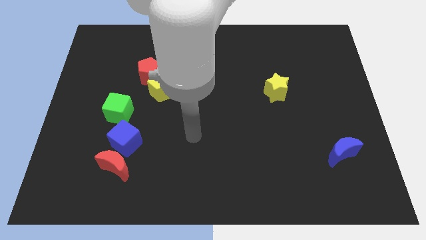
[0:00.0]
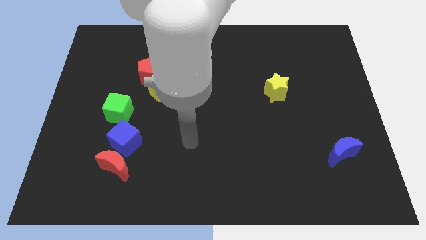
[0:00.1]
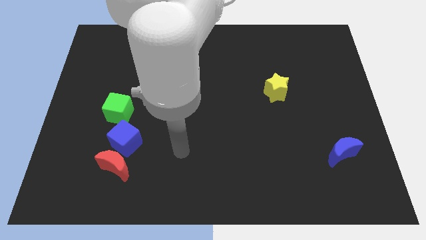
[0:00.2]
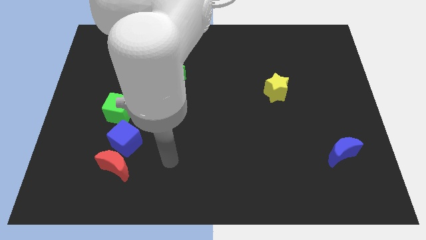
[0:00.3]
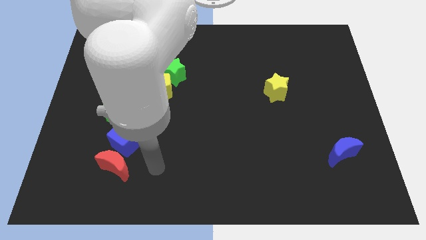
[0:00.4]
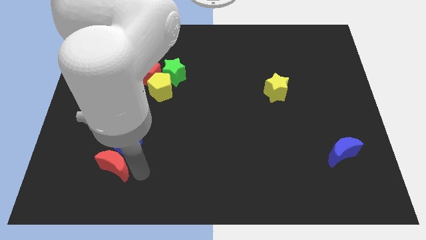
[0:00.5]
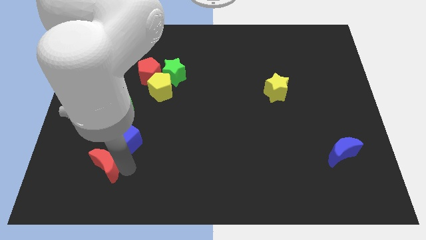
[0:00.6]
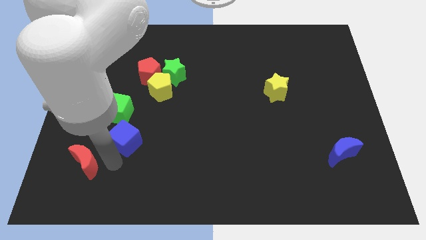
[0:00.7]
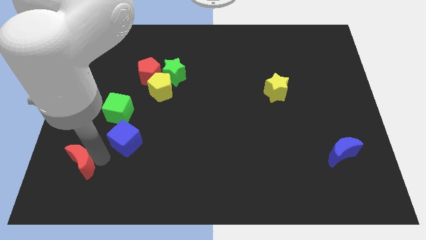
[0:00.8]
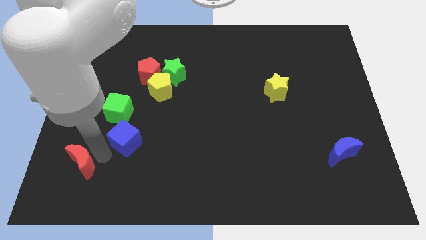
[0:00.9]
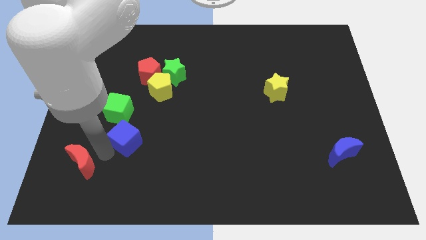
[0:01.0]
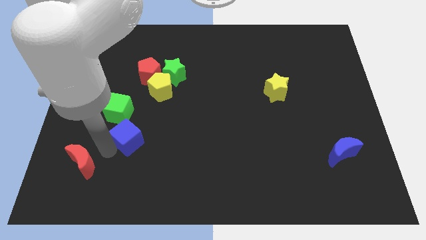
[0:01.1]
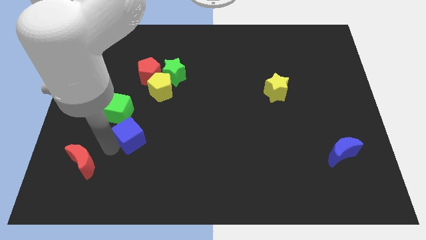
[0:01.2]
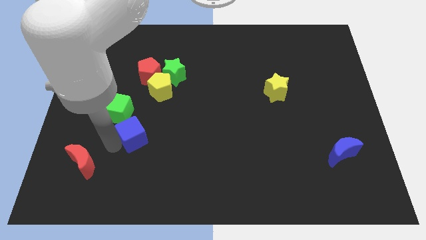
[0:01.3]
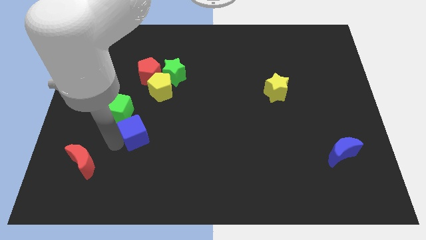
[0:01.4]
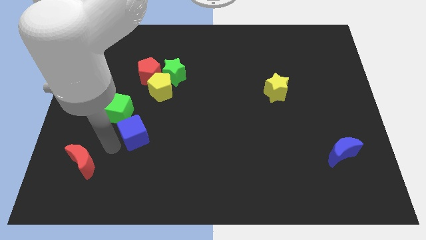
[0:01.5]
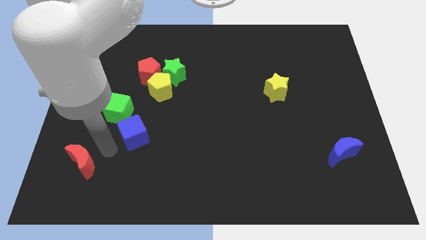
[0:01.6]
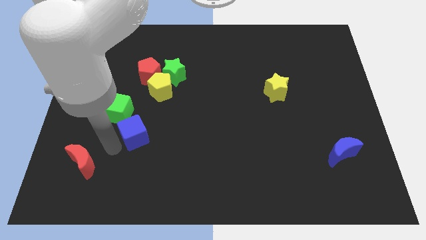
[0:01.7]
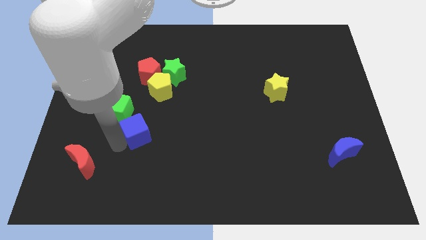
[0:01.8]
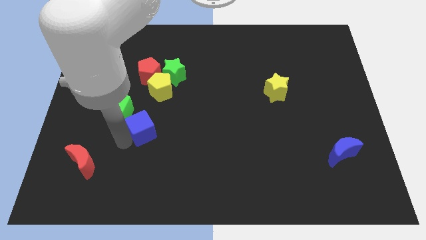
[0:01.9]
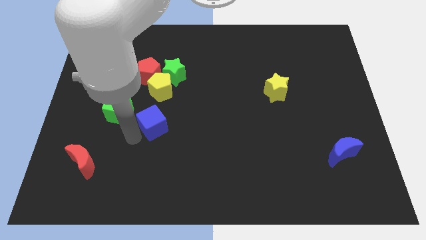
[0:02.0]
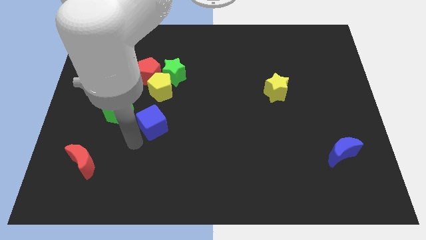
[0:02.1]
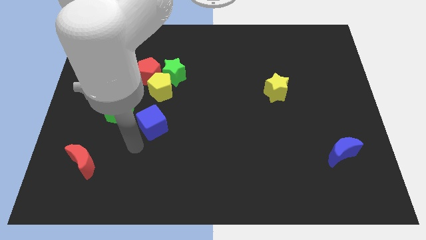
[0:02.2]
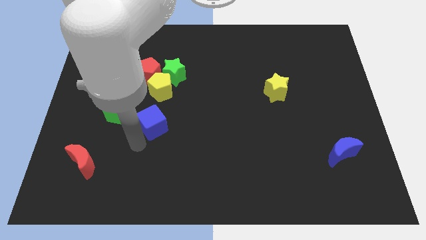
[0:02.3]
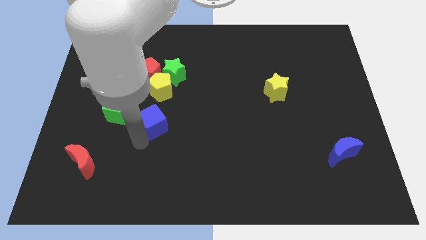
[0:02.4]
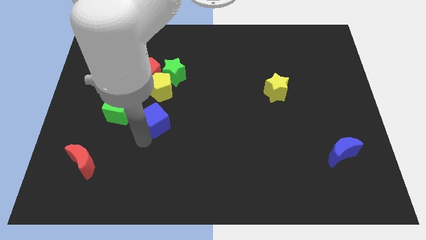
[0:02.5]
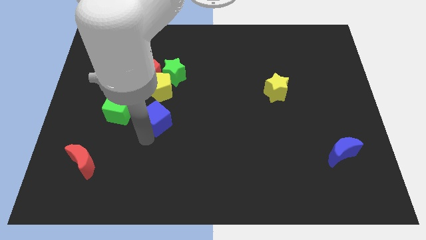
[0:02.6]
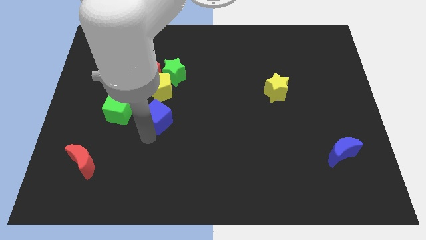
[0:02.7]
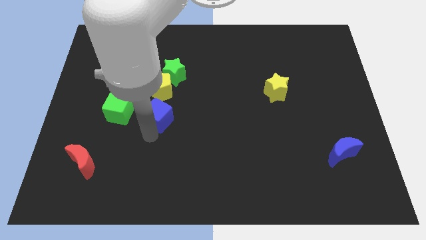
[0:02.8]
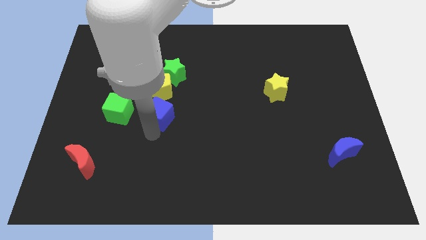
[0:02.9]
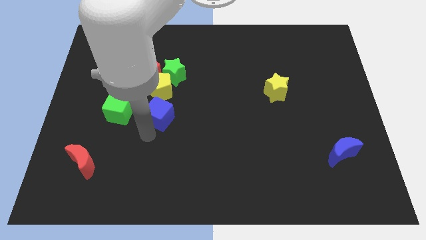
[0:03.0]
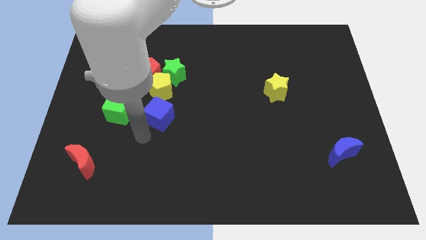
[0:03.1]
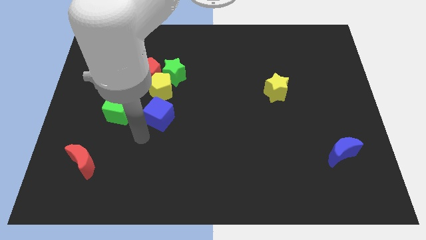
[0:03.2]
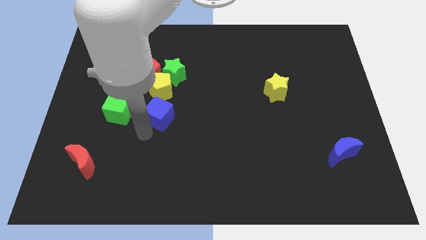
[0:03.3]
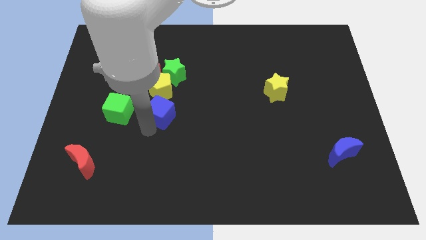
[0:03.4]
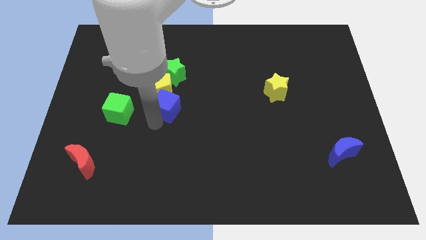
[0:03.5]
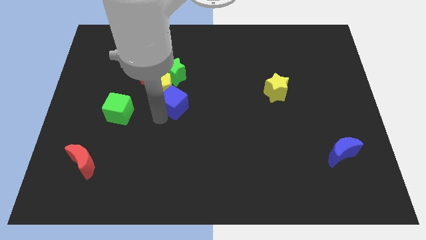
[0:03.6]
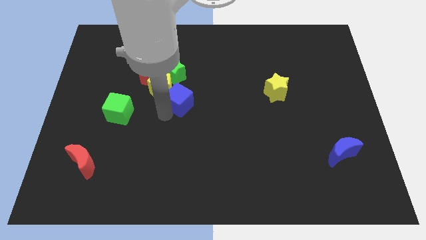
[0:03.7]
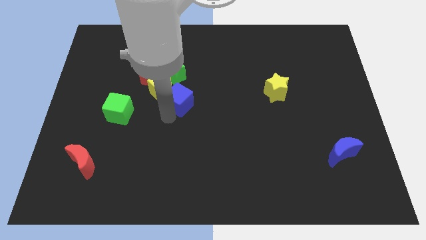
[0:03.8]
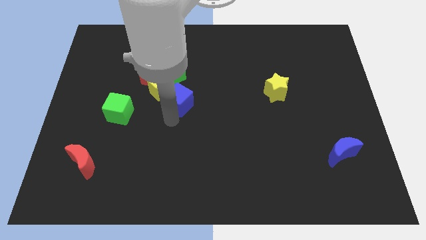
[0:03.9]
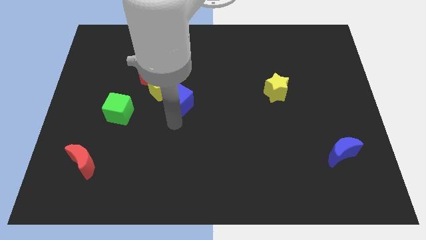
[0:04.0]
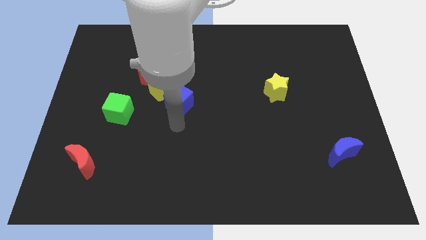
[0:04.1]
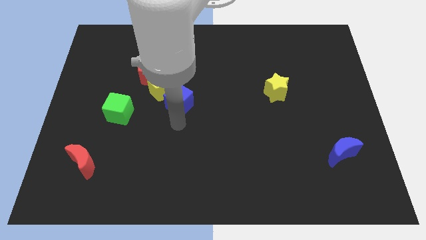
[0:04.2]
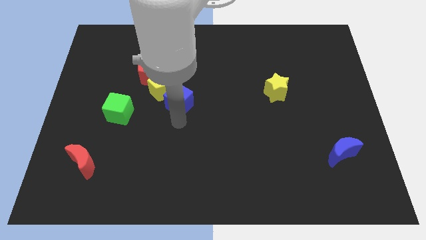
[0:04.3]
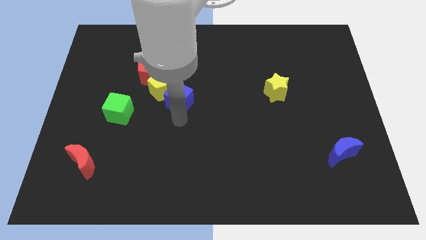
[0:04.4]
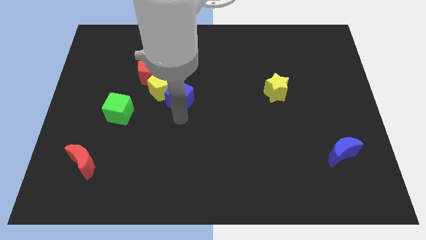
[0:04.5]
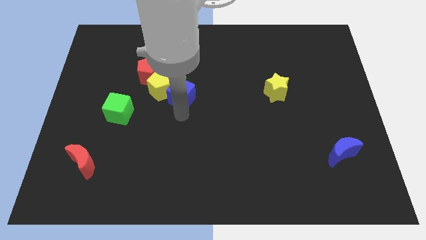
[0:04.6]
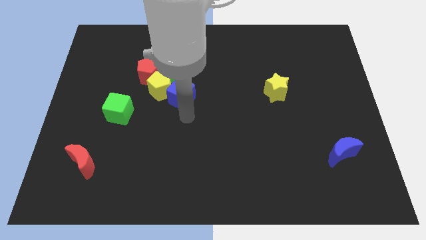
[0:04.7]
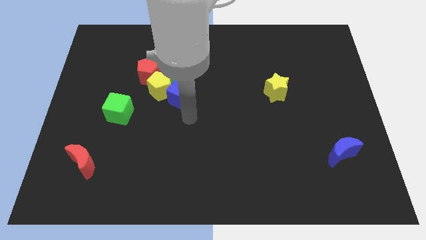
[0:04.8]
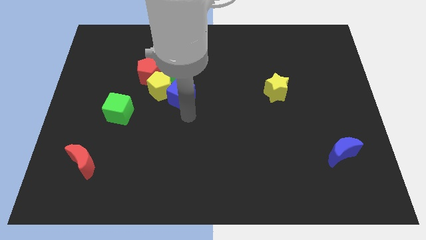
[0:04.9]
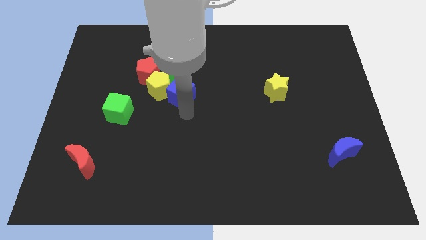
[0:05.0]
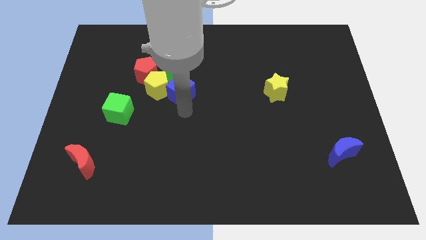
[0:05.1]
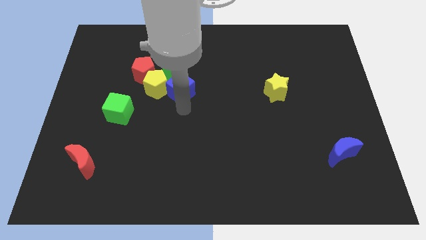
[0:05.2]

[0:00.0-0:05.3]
put the blue cube to the green star

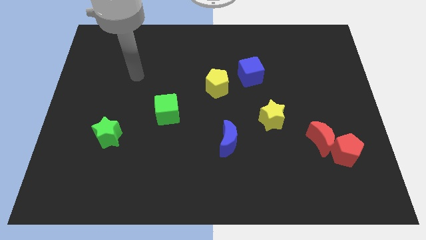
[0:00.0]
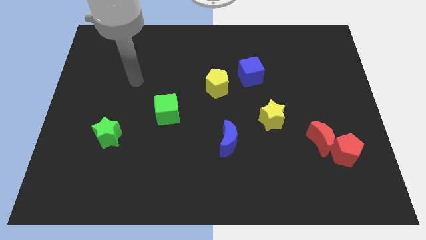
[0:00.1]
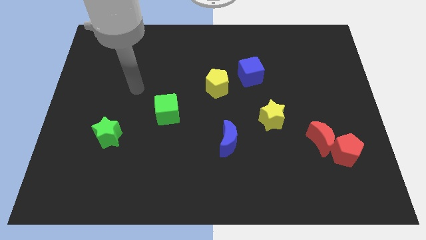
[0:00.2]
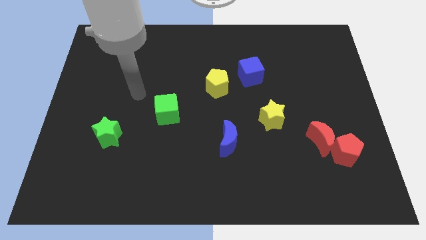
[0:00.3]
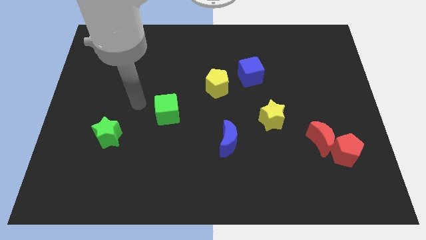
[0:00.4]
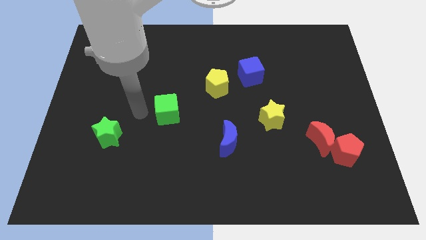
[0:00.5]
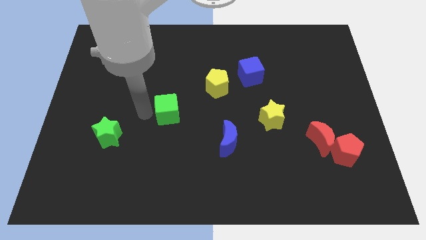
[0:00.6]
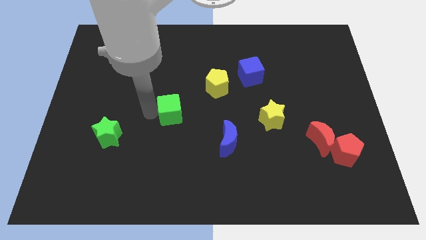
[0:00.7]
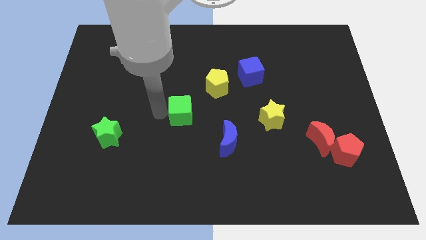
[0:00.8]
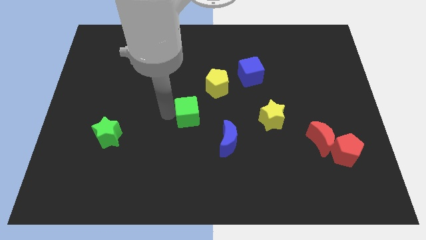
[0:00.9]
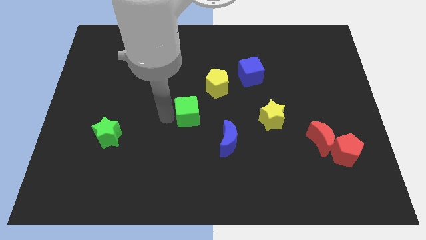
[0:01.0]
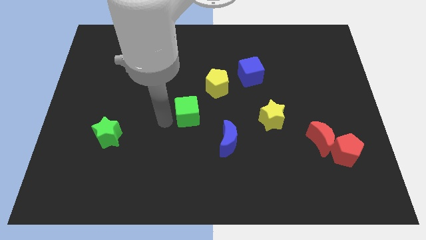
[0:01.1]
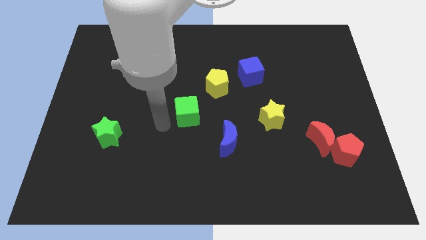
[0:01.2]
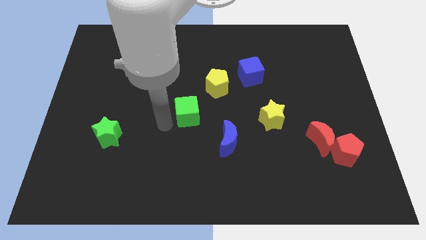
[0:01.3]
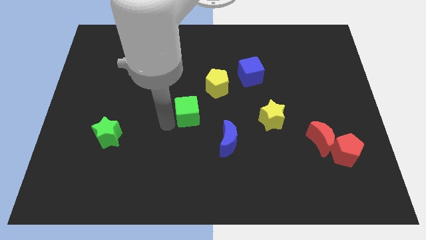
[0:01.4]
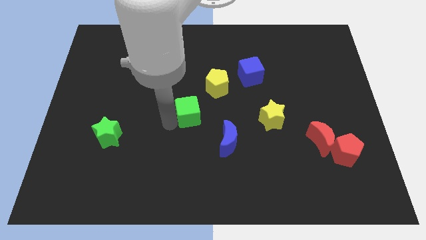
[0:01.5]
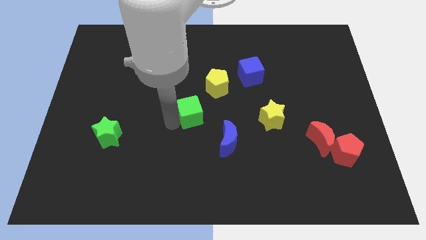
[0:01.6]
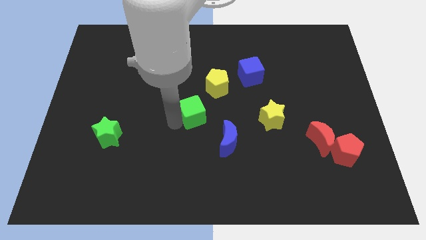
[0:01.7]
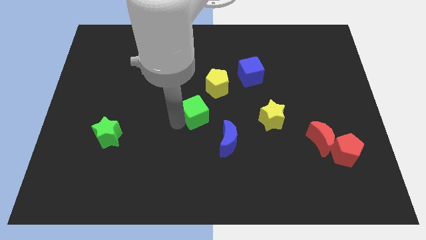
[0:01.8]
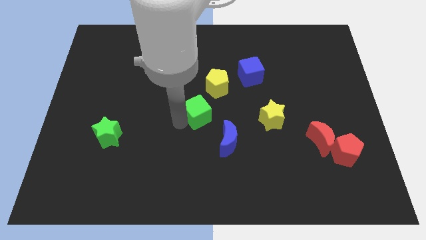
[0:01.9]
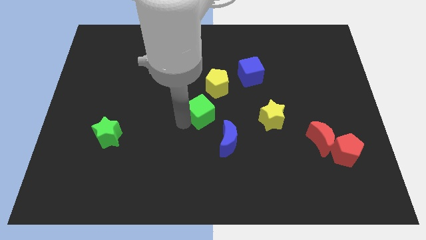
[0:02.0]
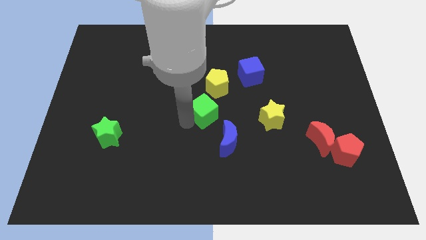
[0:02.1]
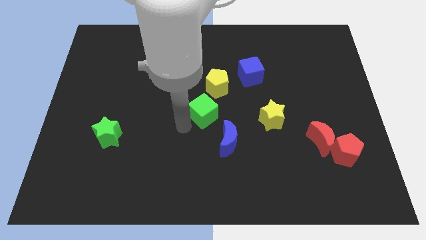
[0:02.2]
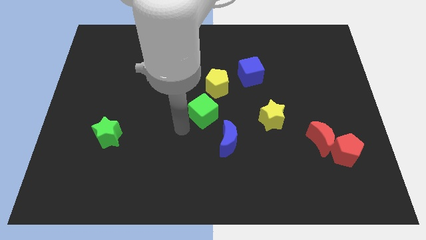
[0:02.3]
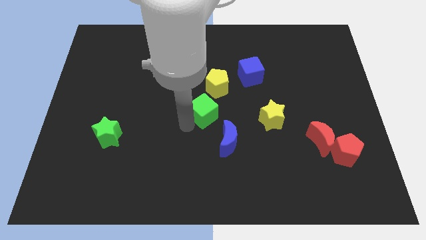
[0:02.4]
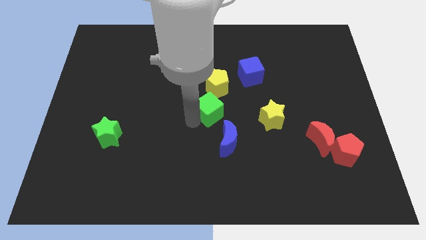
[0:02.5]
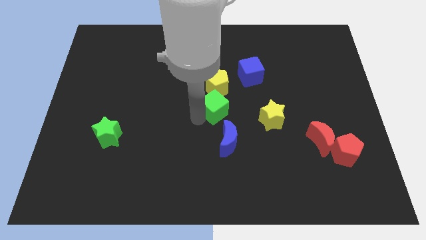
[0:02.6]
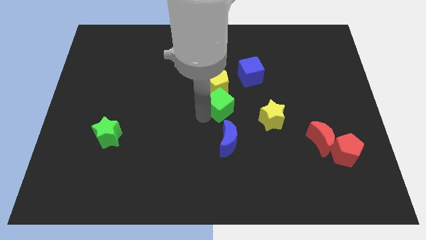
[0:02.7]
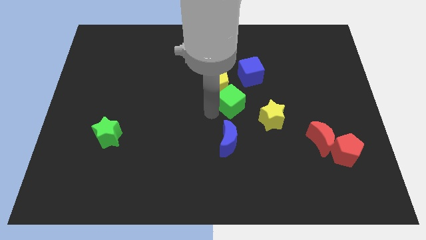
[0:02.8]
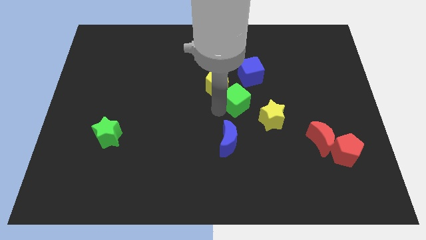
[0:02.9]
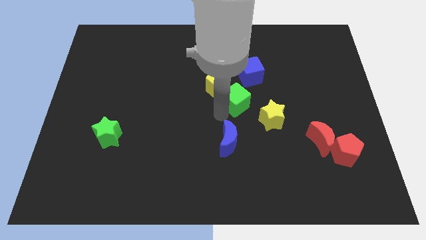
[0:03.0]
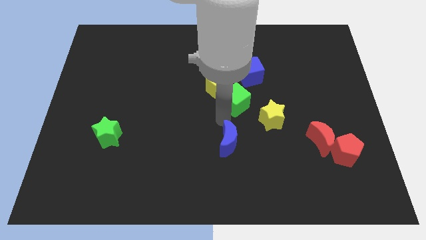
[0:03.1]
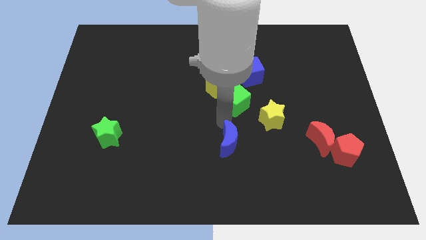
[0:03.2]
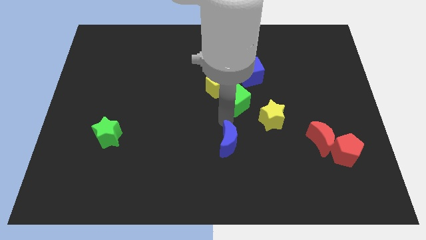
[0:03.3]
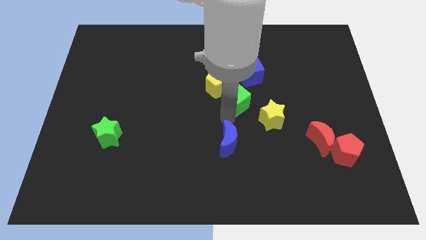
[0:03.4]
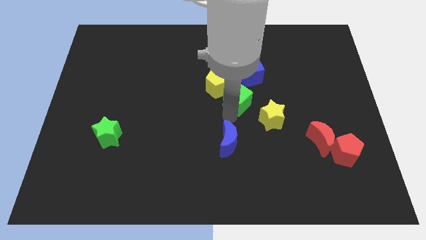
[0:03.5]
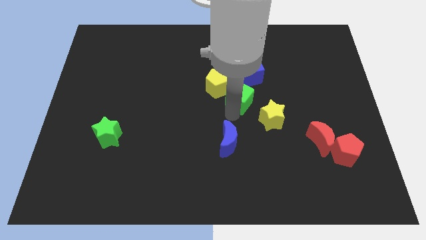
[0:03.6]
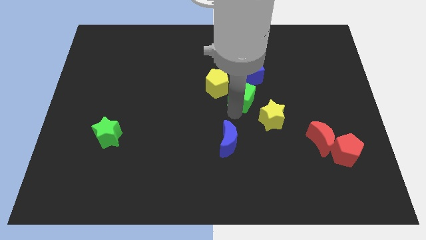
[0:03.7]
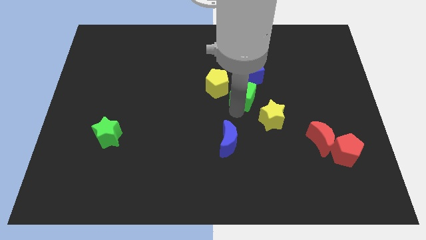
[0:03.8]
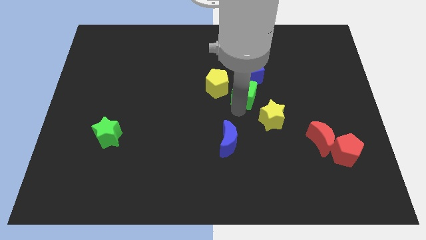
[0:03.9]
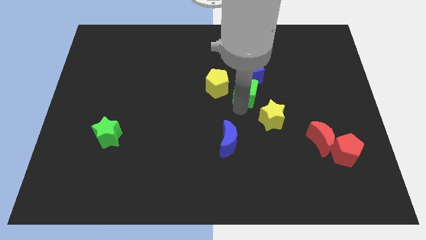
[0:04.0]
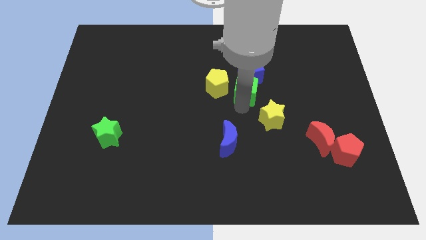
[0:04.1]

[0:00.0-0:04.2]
put the green cube towards the blue cube
